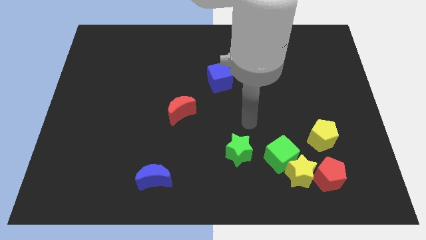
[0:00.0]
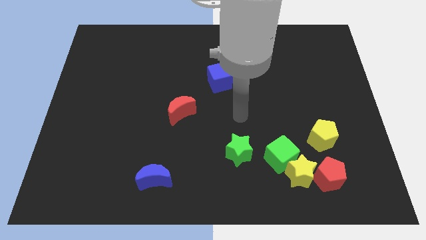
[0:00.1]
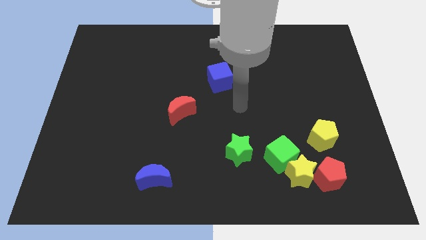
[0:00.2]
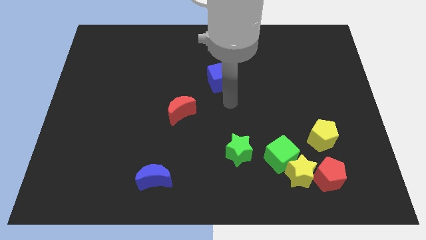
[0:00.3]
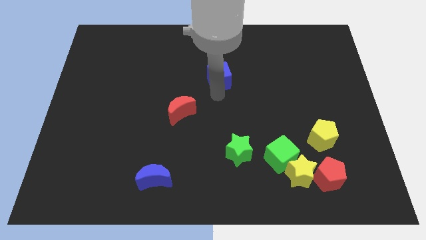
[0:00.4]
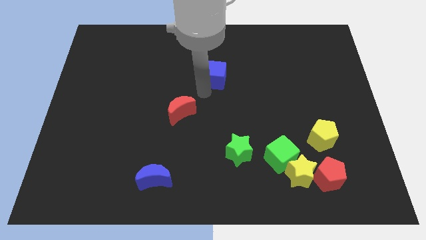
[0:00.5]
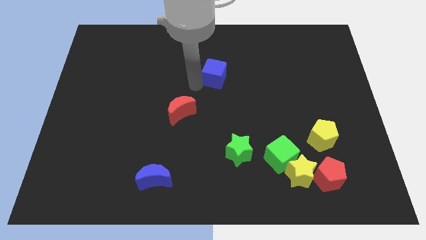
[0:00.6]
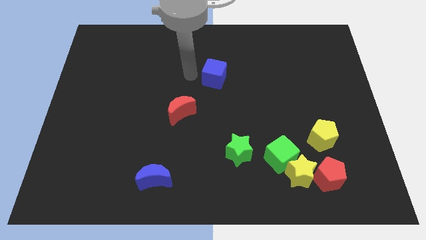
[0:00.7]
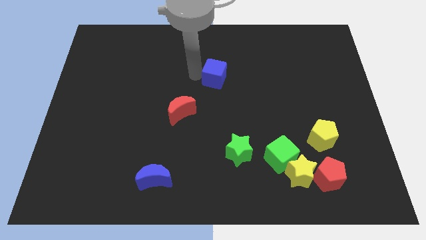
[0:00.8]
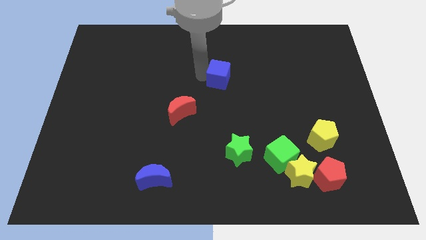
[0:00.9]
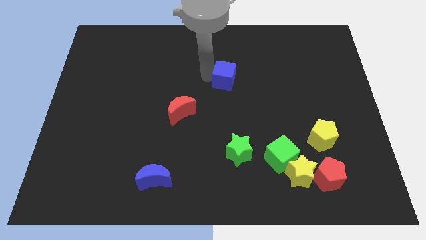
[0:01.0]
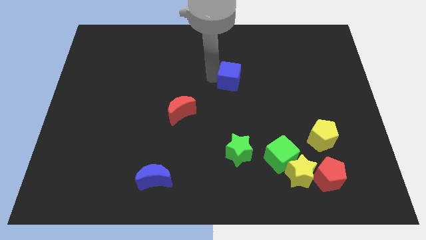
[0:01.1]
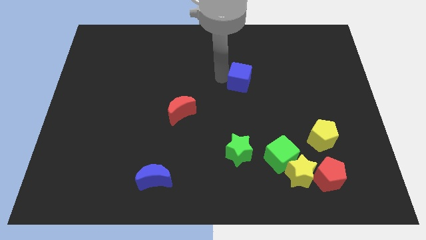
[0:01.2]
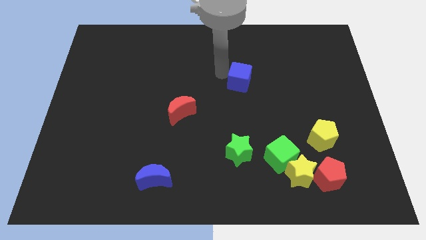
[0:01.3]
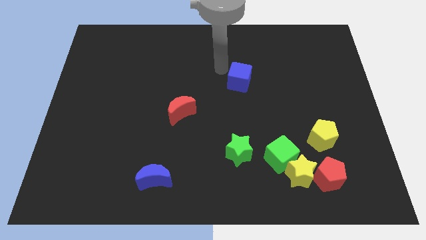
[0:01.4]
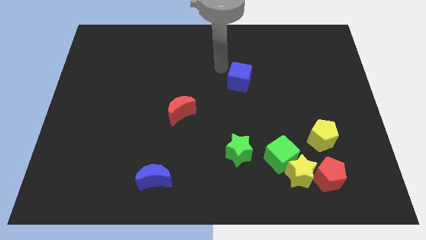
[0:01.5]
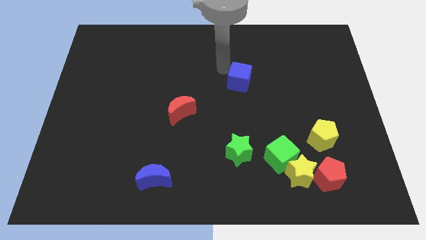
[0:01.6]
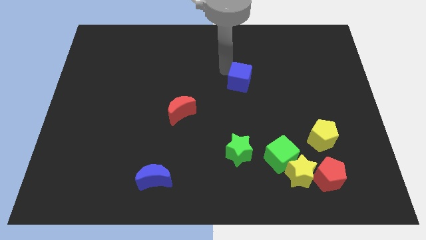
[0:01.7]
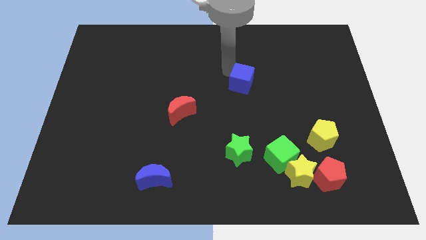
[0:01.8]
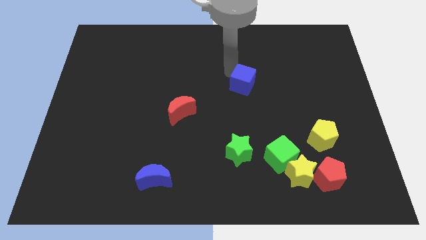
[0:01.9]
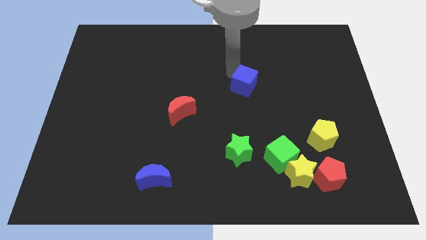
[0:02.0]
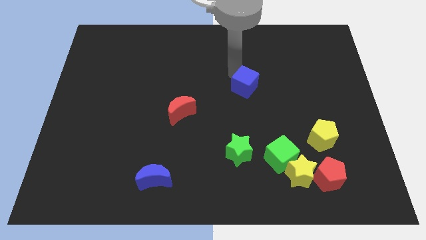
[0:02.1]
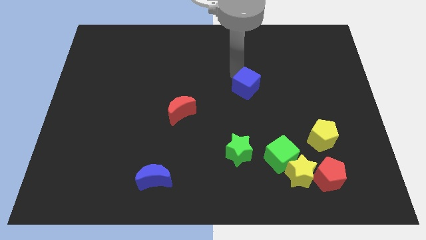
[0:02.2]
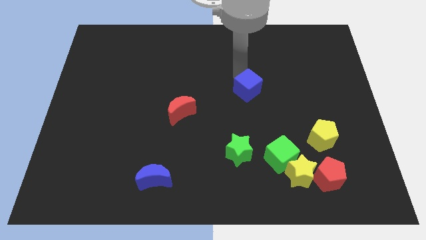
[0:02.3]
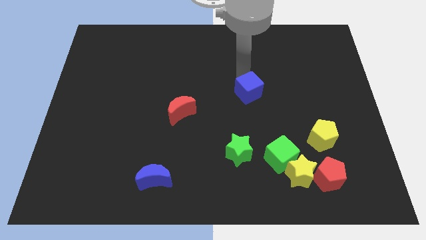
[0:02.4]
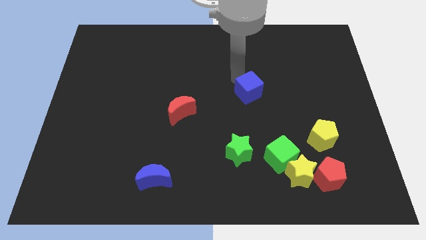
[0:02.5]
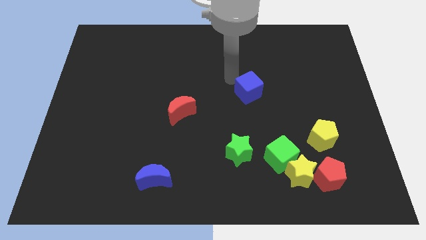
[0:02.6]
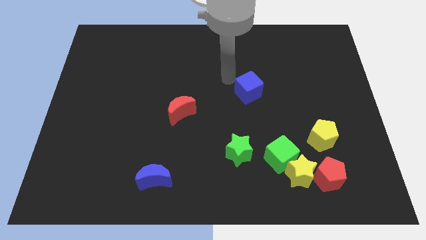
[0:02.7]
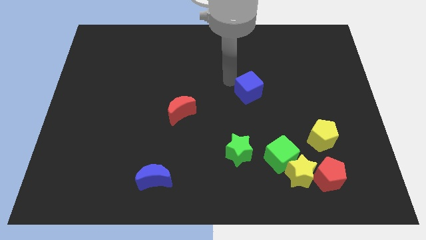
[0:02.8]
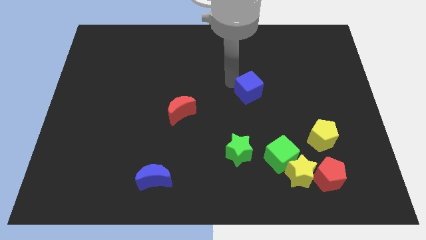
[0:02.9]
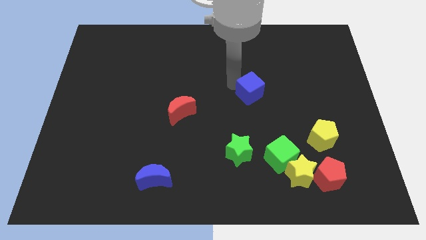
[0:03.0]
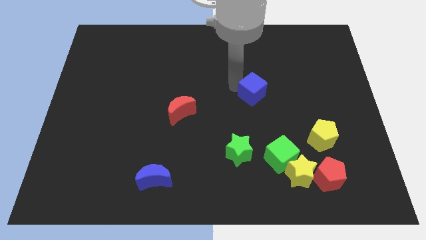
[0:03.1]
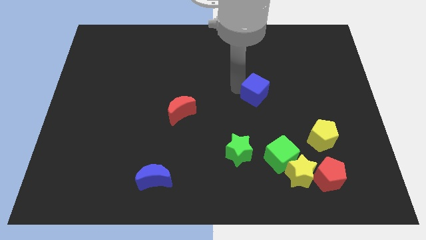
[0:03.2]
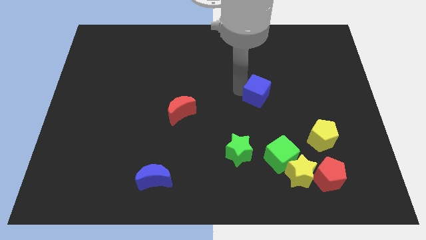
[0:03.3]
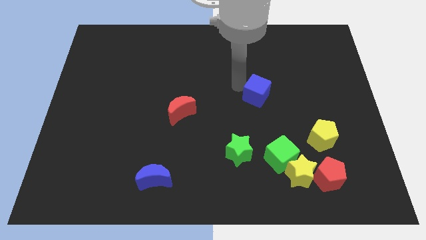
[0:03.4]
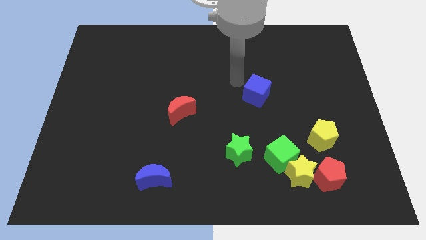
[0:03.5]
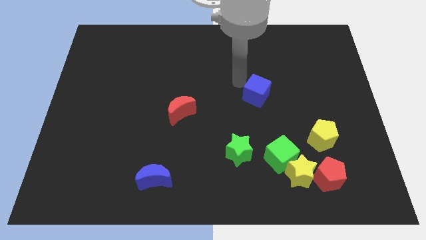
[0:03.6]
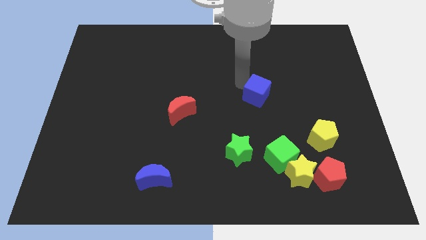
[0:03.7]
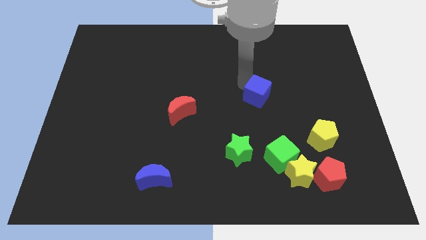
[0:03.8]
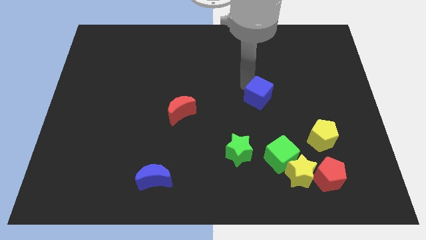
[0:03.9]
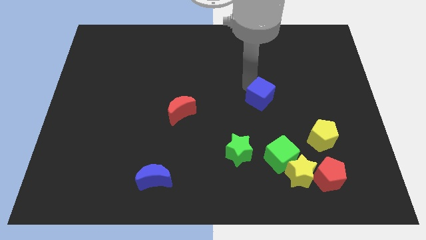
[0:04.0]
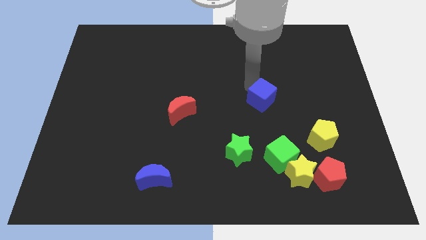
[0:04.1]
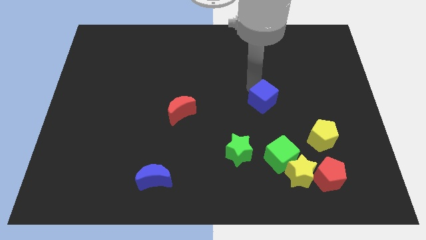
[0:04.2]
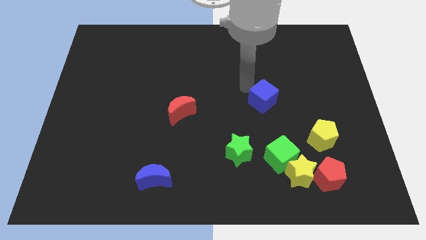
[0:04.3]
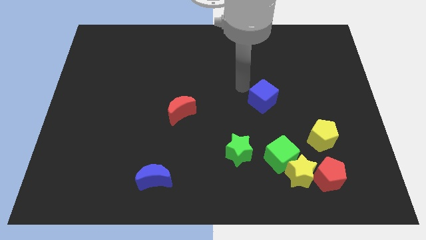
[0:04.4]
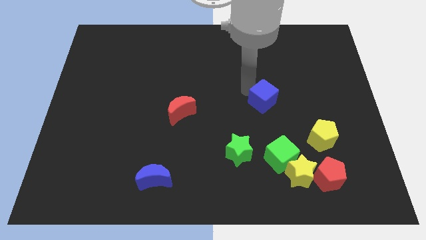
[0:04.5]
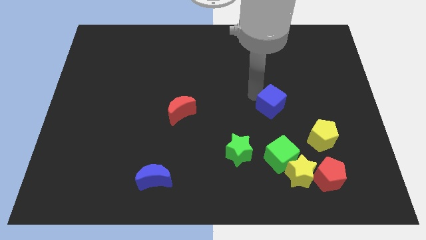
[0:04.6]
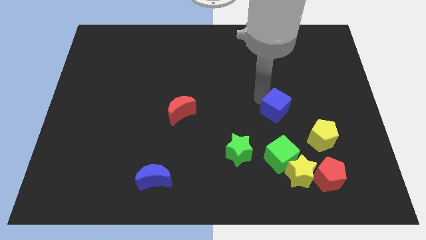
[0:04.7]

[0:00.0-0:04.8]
slide the blue cube diagonally up and to the left of the yellow pentagon

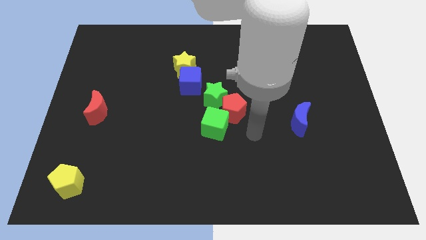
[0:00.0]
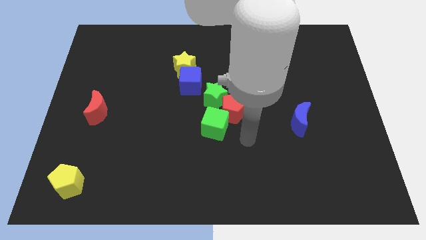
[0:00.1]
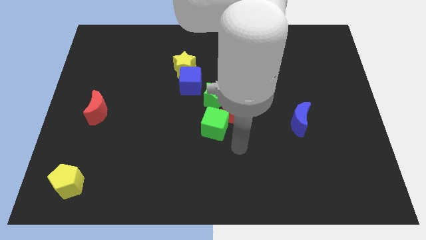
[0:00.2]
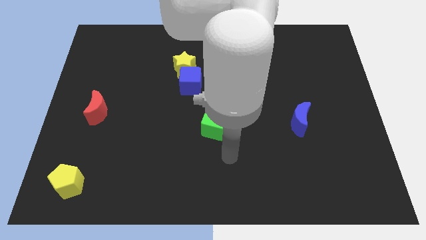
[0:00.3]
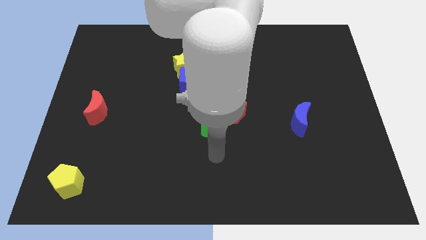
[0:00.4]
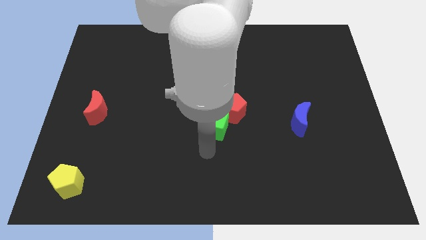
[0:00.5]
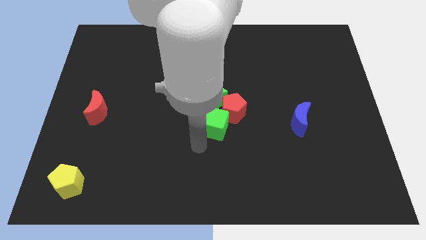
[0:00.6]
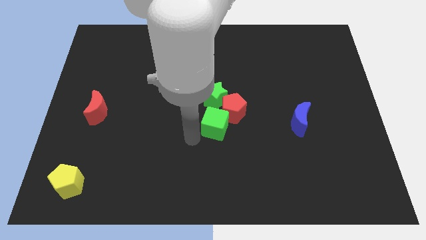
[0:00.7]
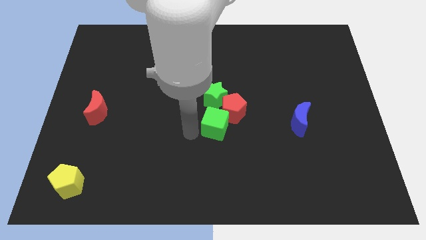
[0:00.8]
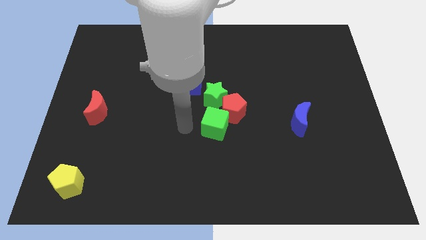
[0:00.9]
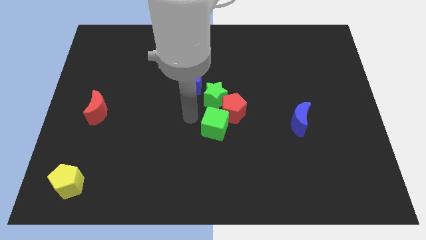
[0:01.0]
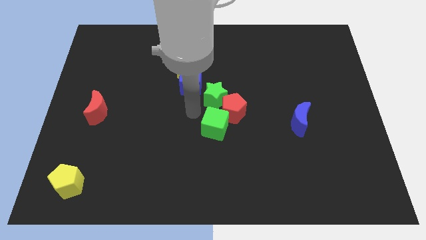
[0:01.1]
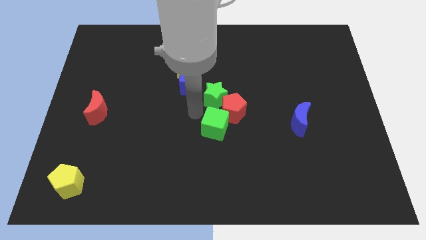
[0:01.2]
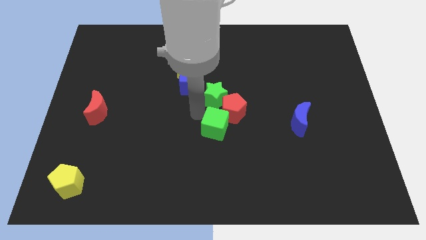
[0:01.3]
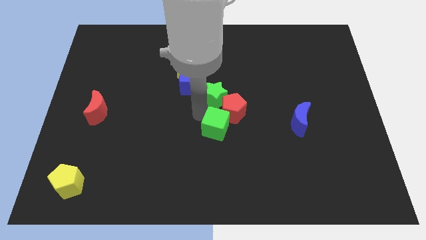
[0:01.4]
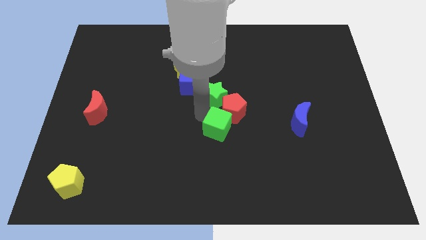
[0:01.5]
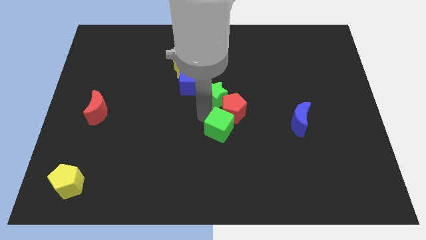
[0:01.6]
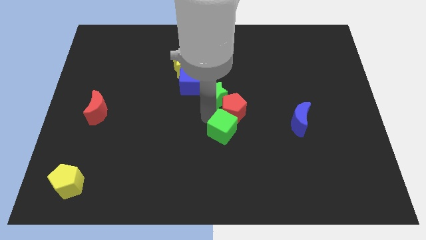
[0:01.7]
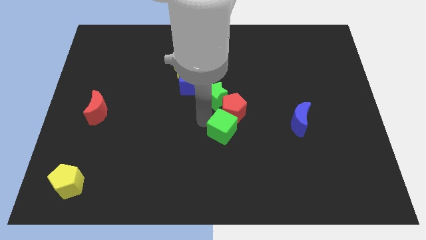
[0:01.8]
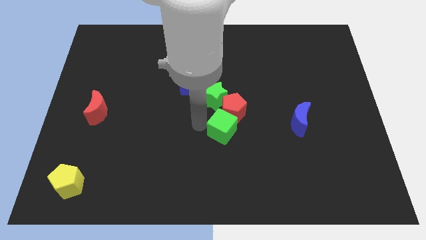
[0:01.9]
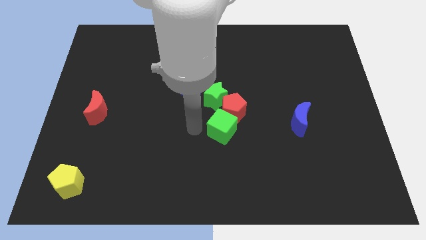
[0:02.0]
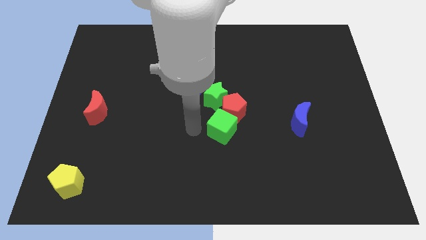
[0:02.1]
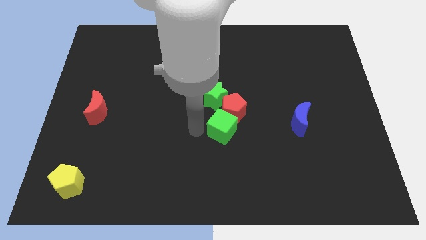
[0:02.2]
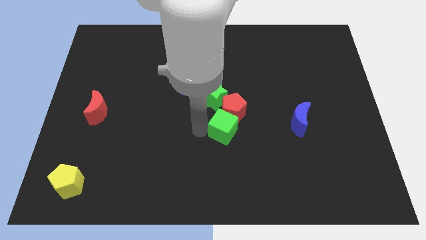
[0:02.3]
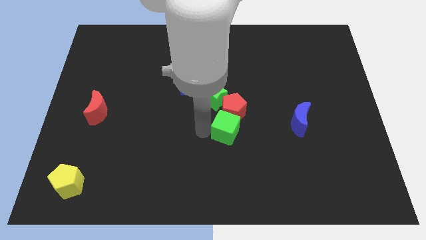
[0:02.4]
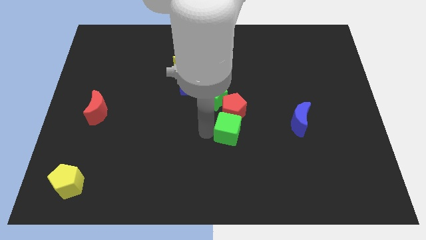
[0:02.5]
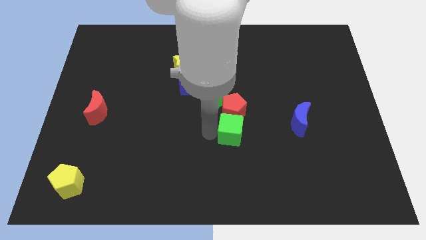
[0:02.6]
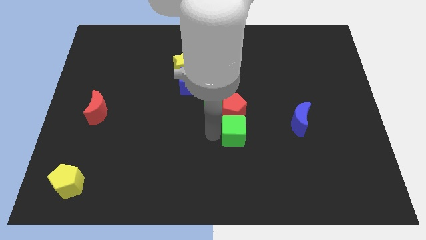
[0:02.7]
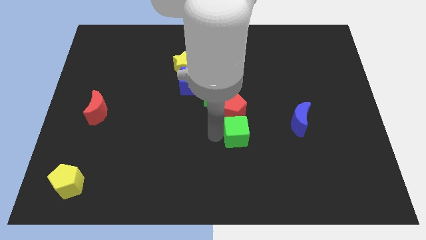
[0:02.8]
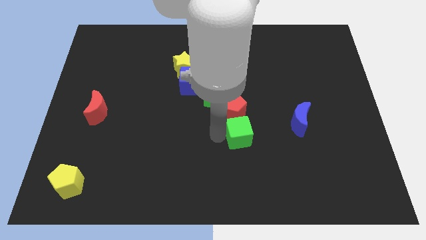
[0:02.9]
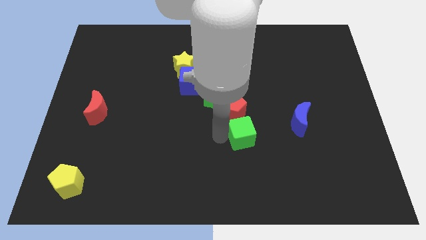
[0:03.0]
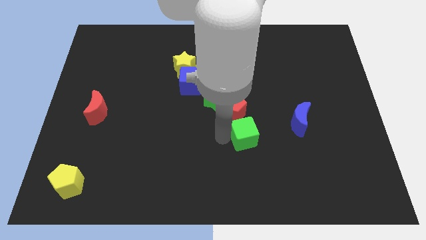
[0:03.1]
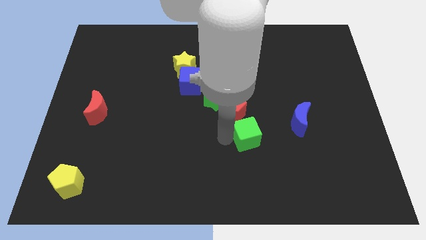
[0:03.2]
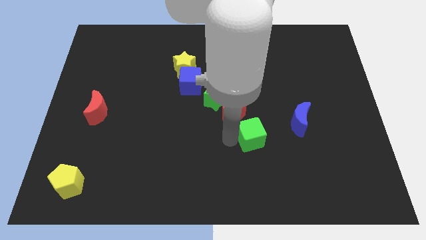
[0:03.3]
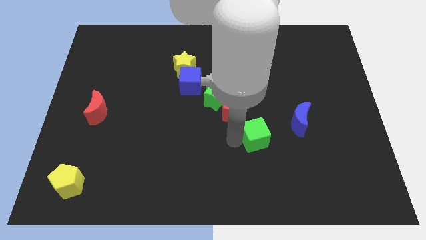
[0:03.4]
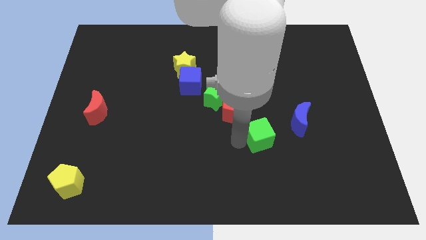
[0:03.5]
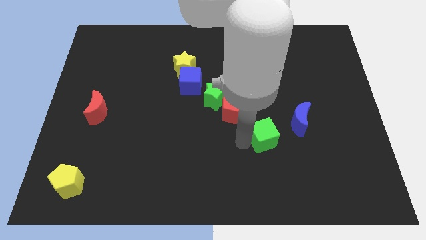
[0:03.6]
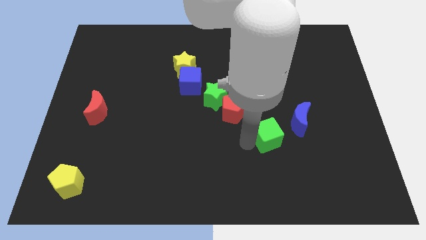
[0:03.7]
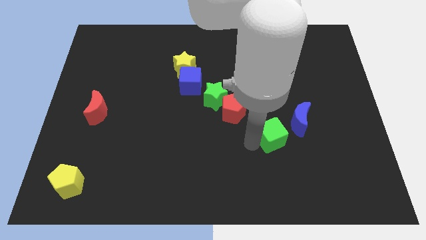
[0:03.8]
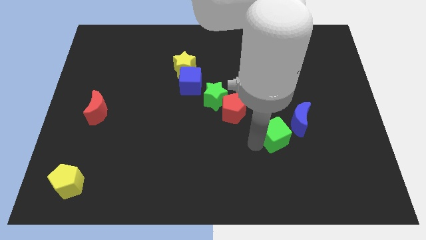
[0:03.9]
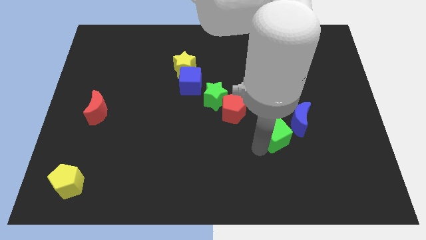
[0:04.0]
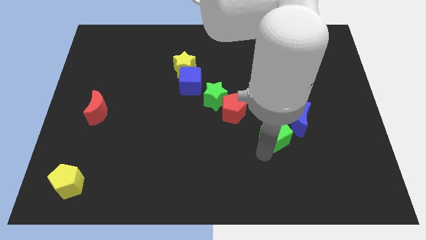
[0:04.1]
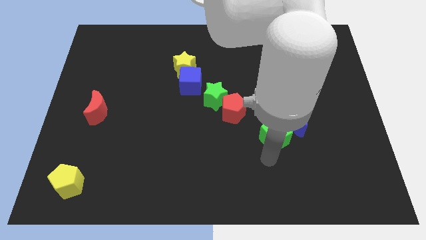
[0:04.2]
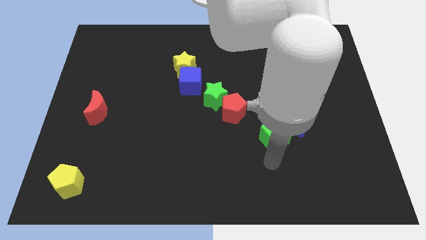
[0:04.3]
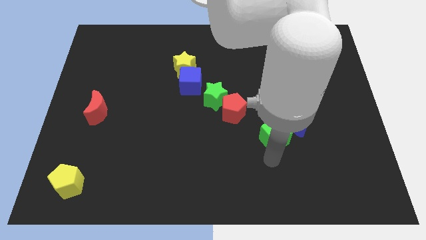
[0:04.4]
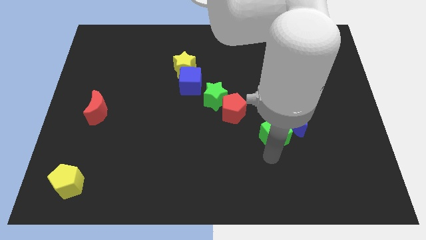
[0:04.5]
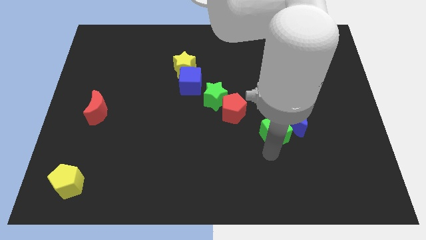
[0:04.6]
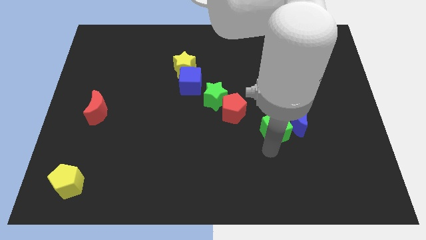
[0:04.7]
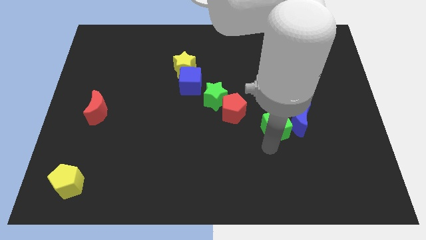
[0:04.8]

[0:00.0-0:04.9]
move the green cube to the right of the red pentagon
